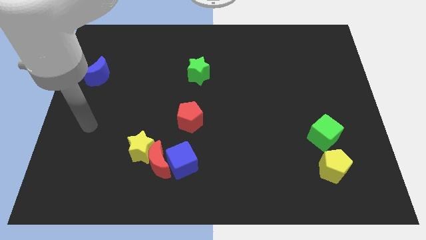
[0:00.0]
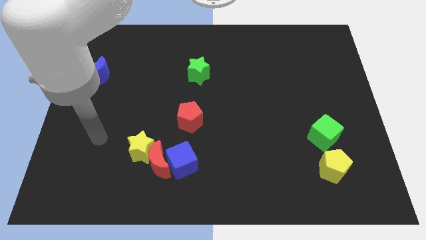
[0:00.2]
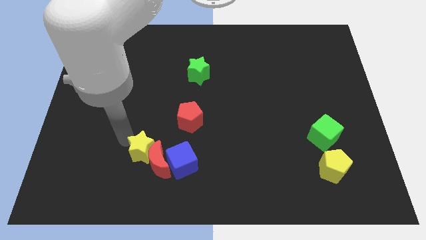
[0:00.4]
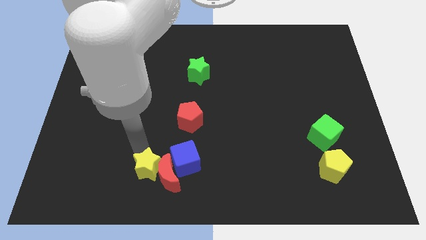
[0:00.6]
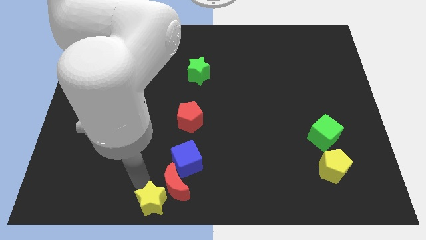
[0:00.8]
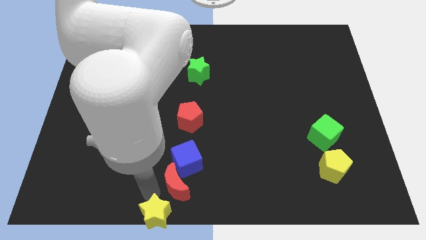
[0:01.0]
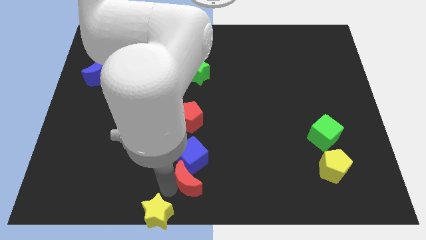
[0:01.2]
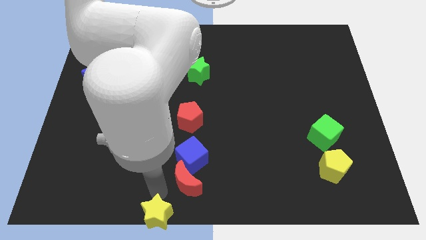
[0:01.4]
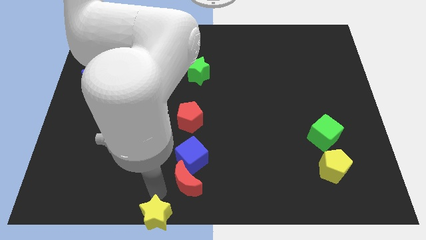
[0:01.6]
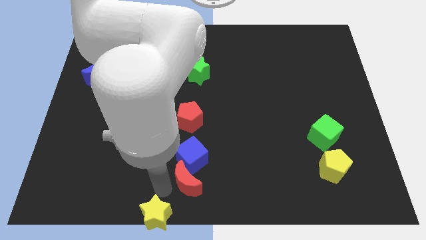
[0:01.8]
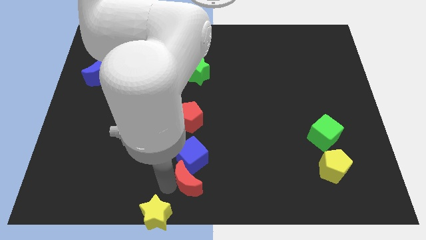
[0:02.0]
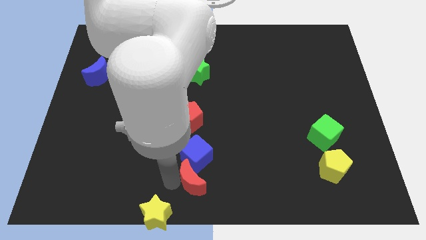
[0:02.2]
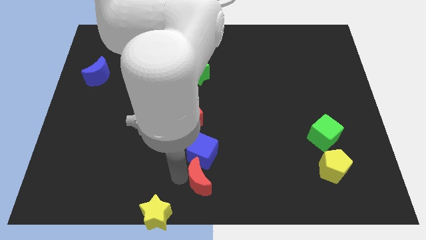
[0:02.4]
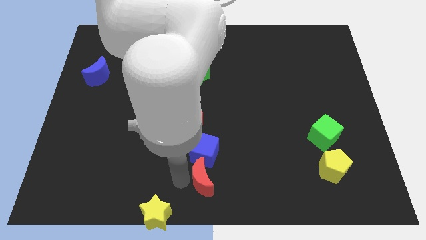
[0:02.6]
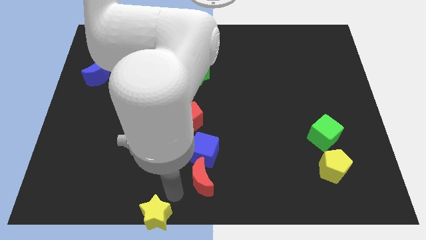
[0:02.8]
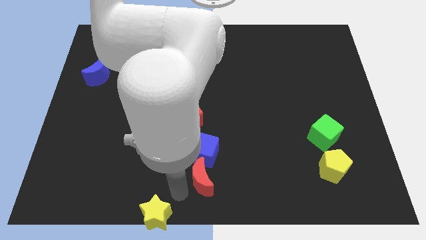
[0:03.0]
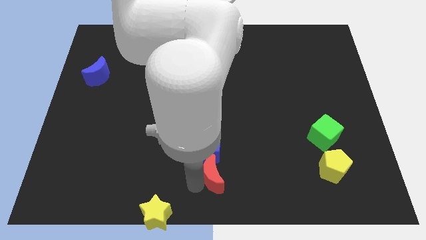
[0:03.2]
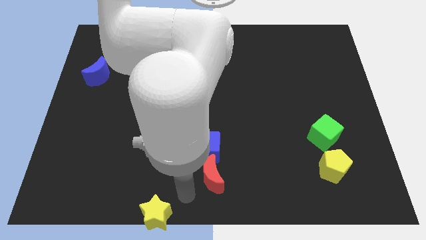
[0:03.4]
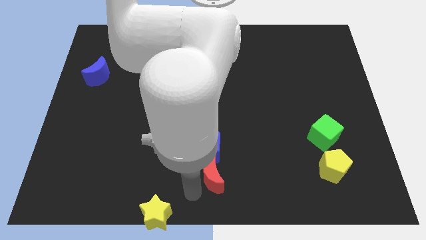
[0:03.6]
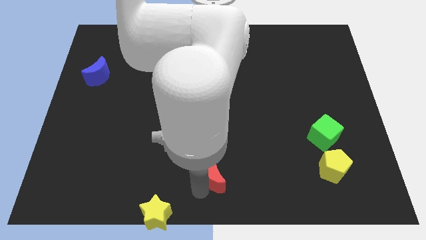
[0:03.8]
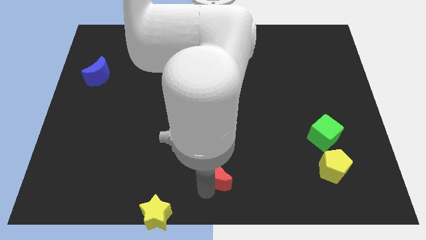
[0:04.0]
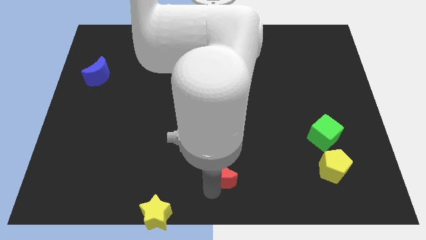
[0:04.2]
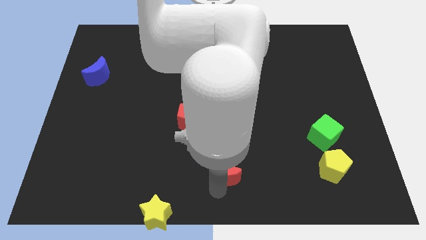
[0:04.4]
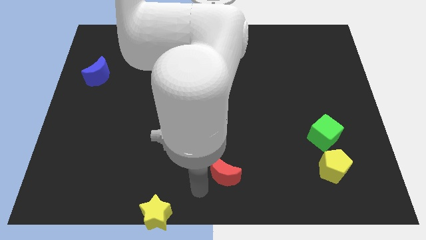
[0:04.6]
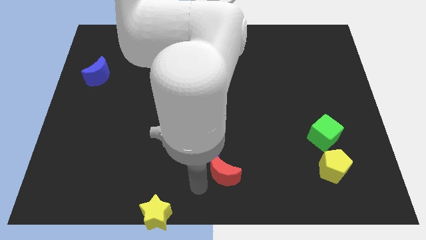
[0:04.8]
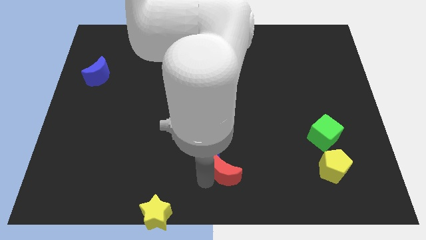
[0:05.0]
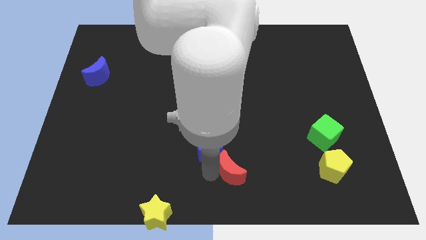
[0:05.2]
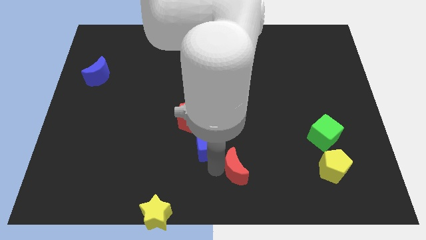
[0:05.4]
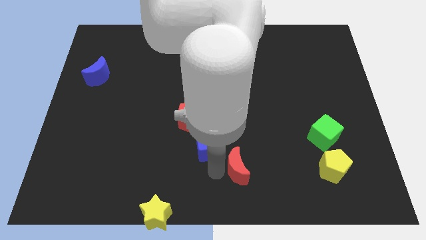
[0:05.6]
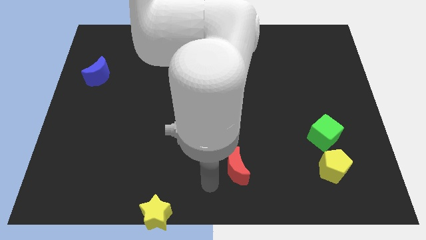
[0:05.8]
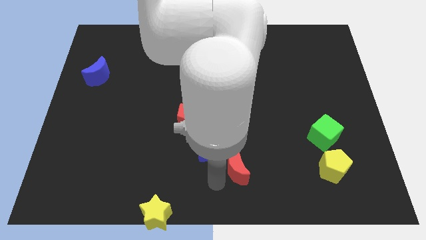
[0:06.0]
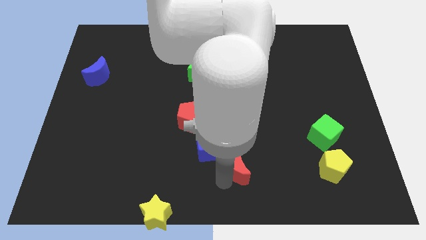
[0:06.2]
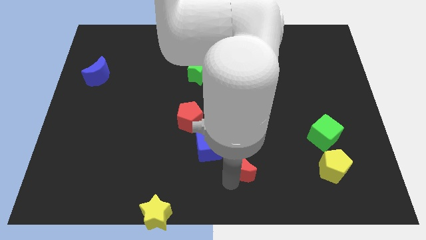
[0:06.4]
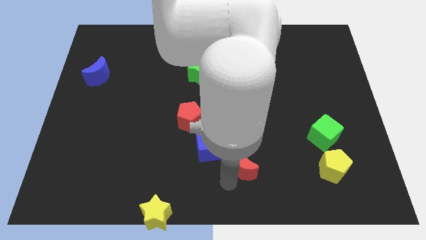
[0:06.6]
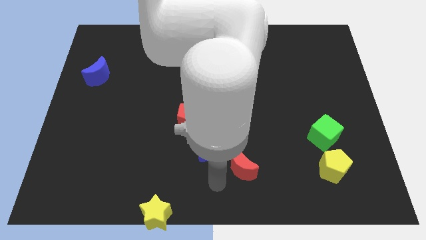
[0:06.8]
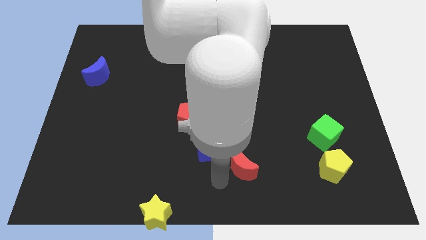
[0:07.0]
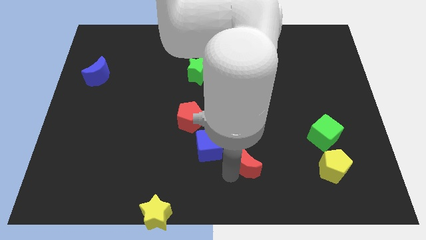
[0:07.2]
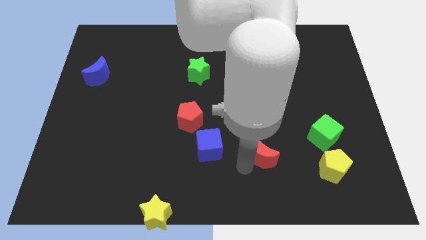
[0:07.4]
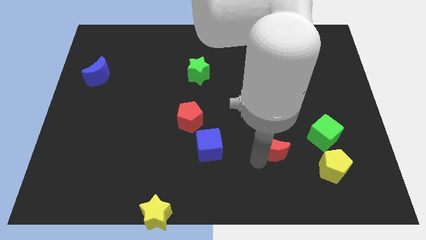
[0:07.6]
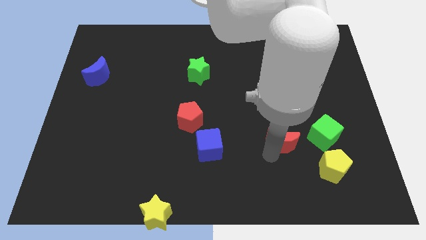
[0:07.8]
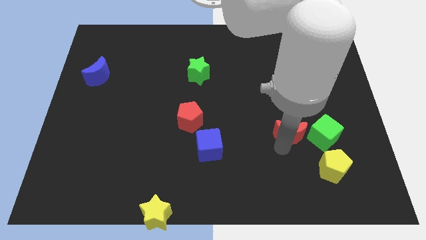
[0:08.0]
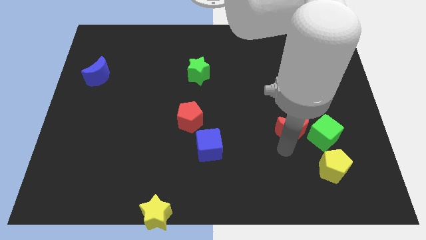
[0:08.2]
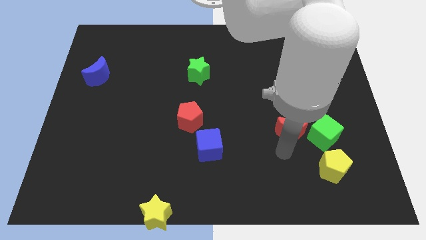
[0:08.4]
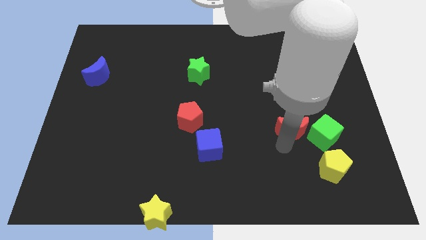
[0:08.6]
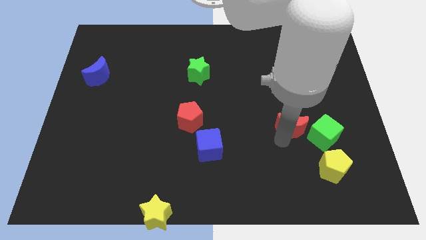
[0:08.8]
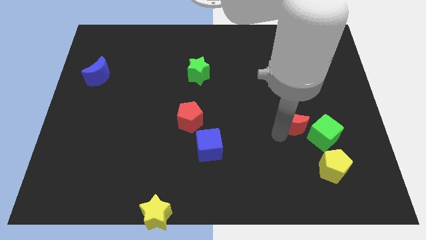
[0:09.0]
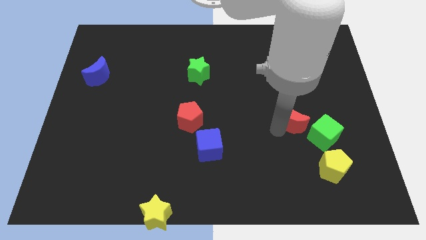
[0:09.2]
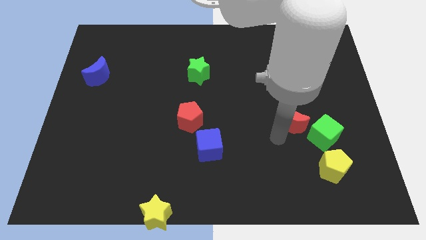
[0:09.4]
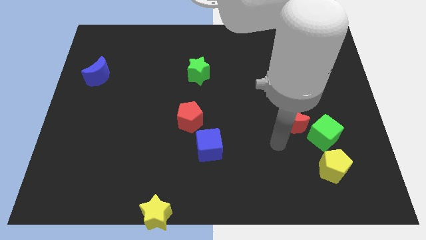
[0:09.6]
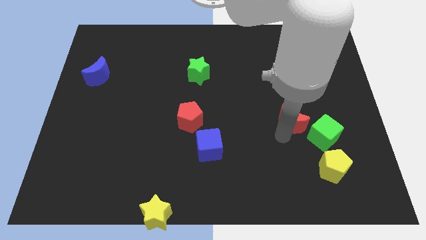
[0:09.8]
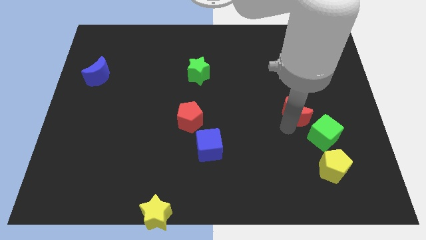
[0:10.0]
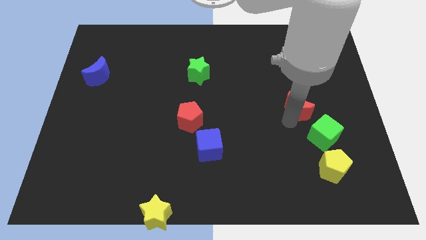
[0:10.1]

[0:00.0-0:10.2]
put the red moon to the top of the green cube

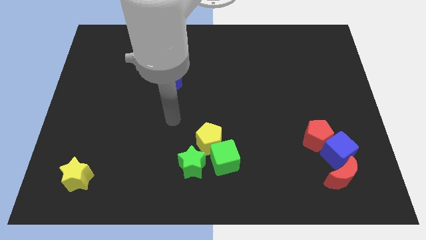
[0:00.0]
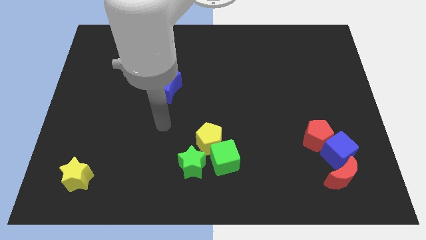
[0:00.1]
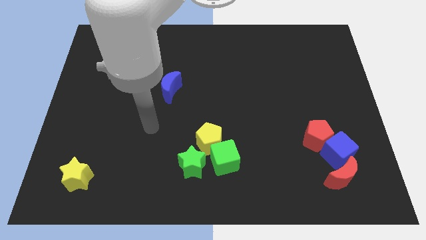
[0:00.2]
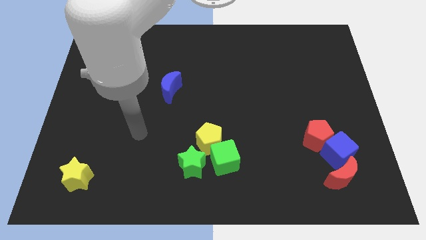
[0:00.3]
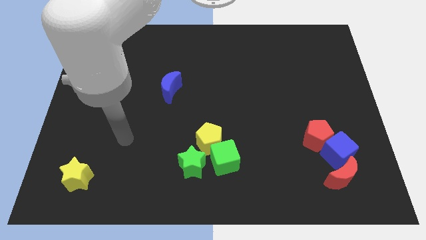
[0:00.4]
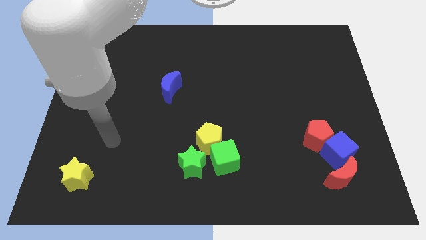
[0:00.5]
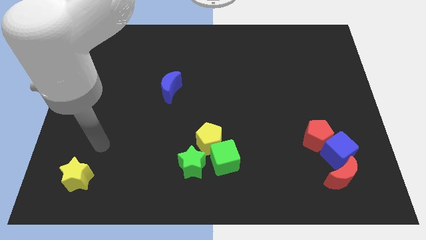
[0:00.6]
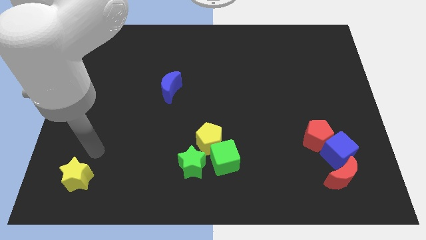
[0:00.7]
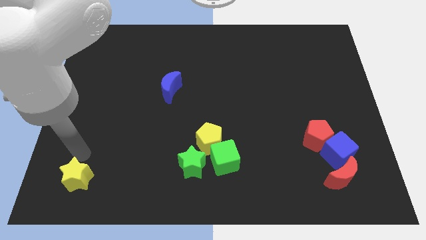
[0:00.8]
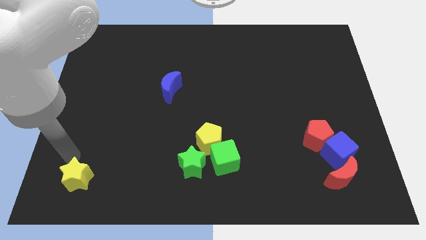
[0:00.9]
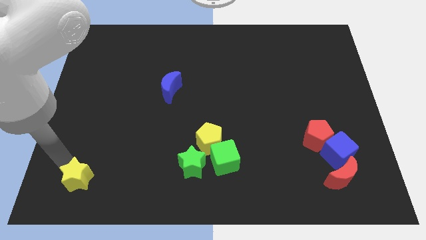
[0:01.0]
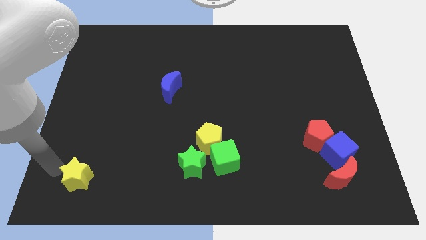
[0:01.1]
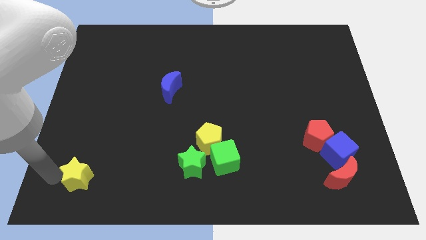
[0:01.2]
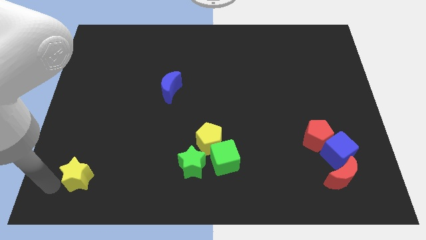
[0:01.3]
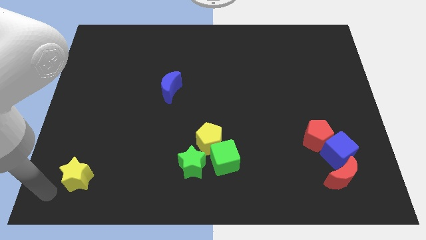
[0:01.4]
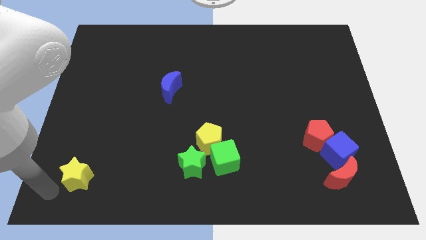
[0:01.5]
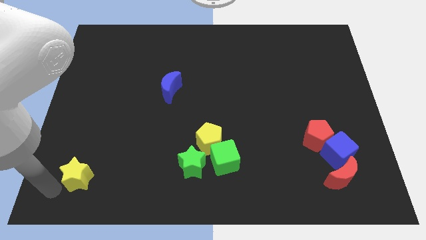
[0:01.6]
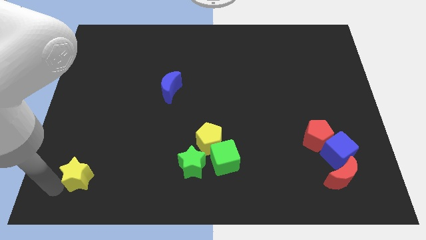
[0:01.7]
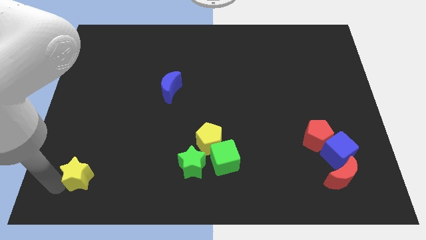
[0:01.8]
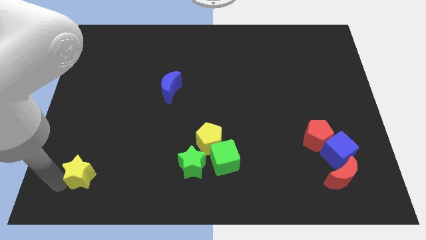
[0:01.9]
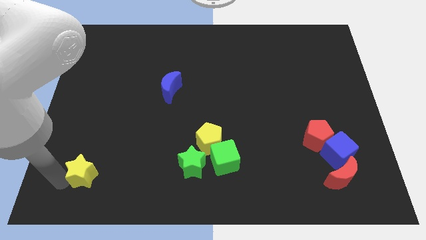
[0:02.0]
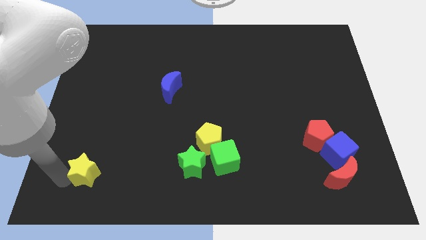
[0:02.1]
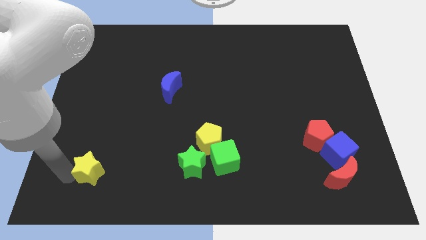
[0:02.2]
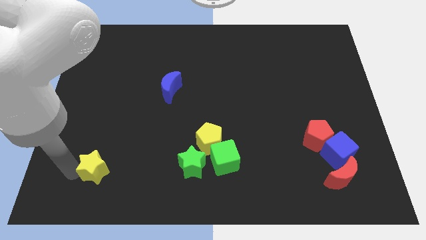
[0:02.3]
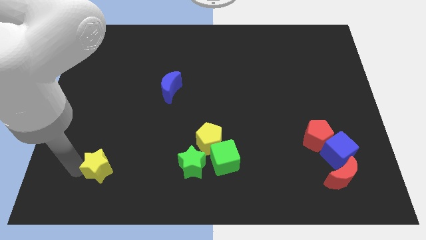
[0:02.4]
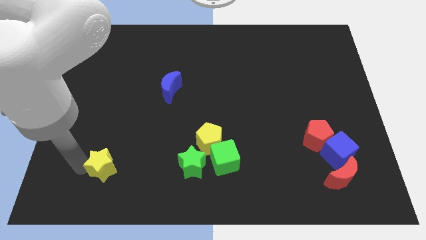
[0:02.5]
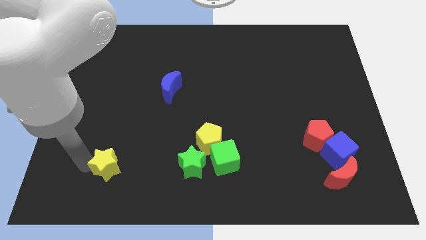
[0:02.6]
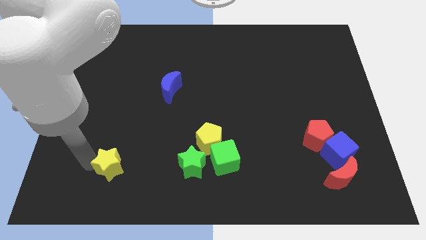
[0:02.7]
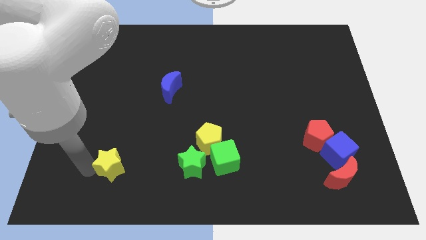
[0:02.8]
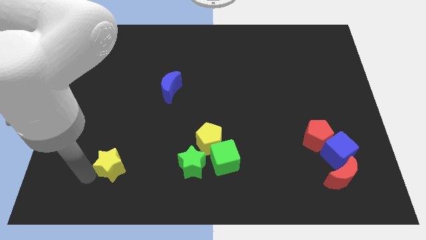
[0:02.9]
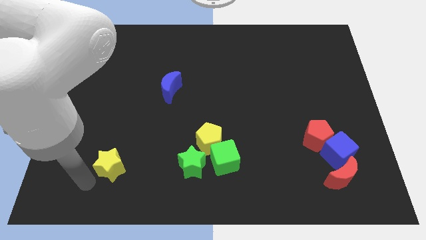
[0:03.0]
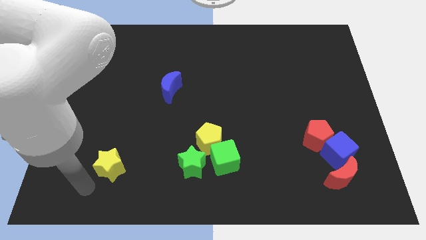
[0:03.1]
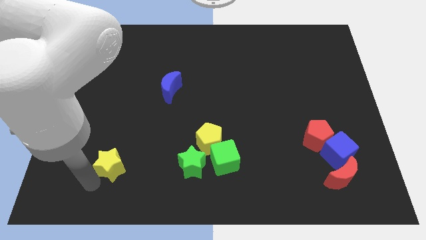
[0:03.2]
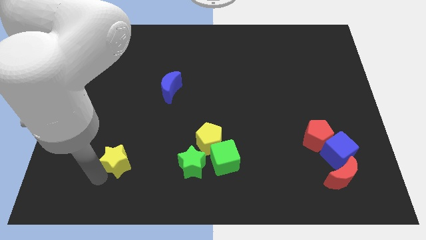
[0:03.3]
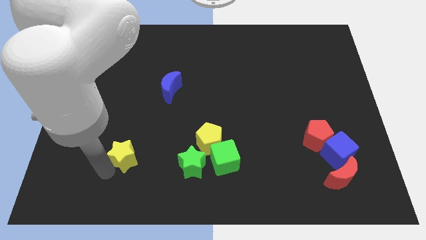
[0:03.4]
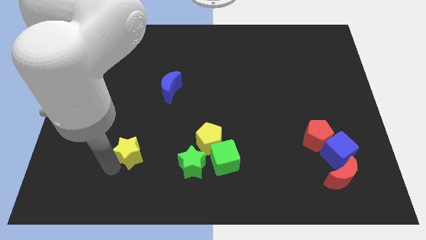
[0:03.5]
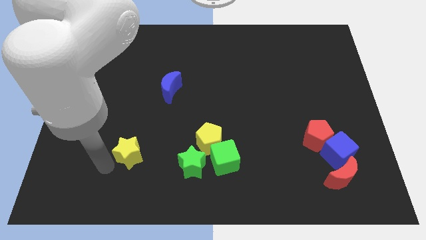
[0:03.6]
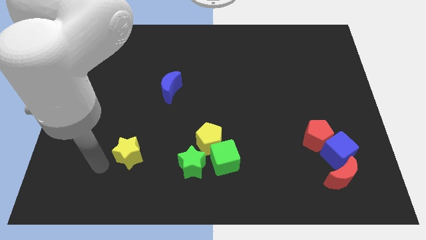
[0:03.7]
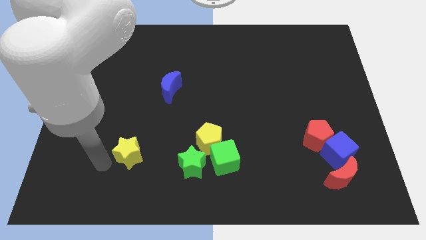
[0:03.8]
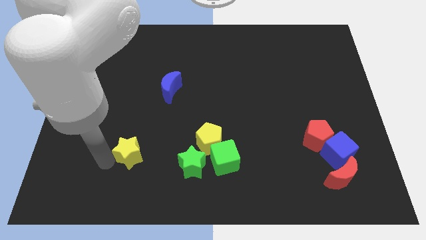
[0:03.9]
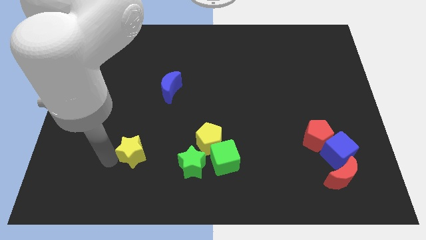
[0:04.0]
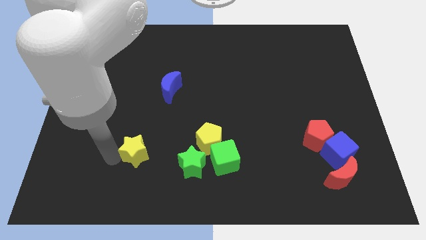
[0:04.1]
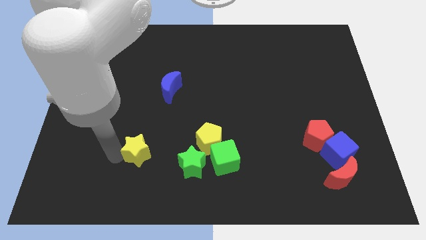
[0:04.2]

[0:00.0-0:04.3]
move the yellow star to the left side of the yellow pentagon
